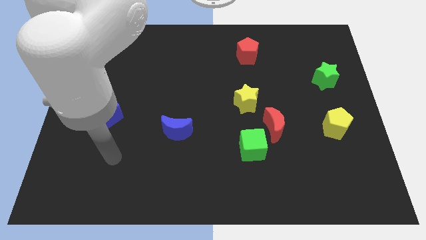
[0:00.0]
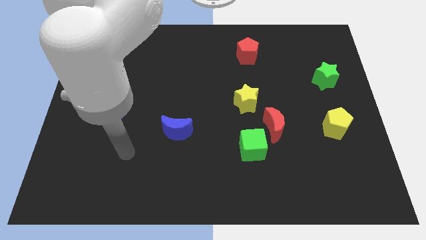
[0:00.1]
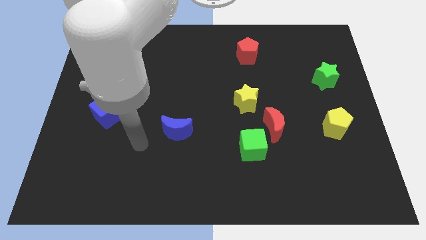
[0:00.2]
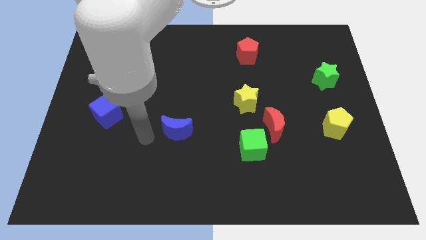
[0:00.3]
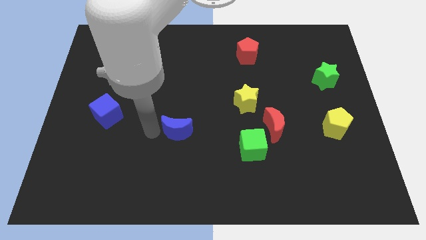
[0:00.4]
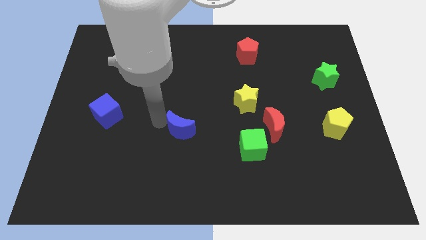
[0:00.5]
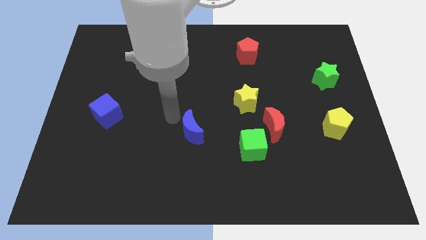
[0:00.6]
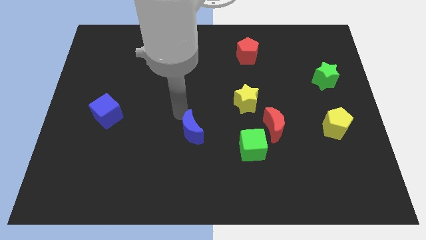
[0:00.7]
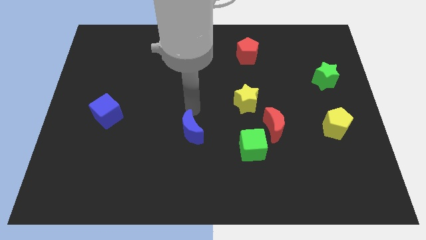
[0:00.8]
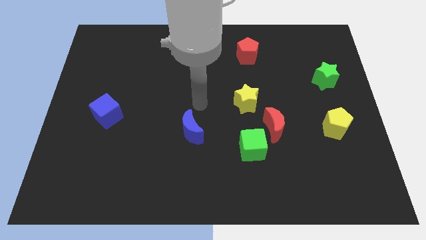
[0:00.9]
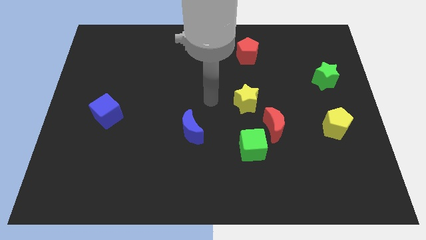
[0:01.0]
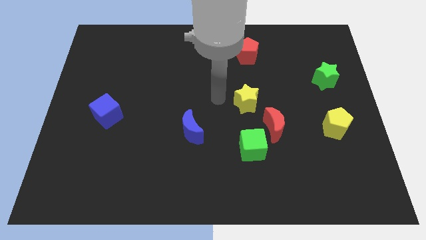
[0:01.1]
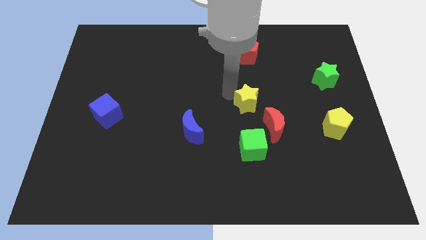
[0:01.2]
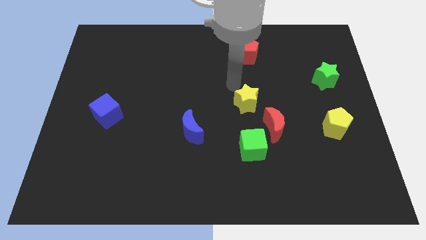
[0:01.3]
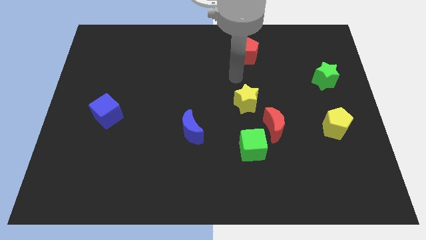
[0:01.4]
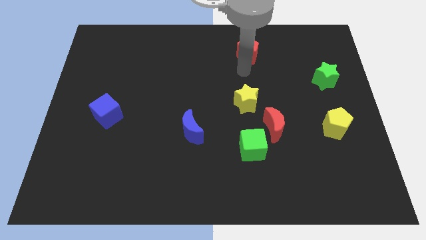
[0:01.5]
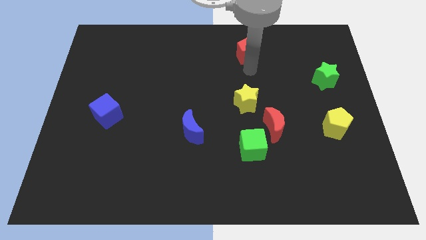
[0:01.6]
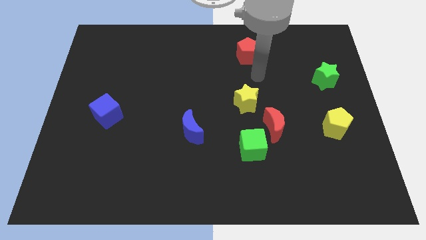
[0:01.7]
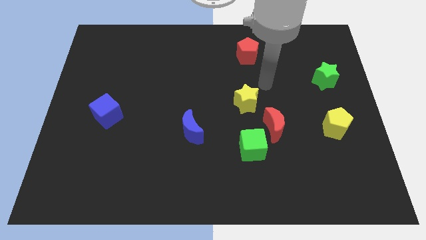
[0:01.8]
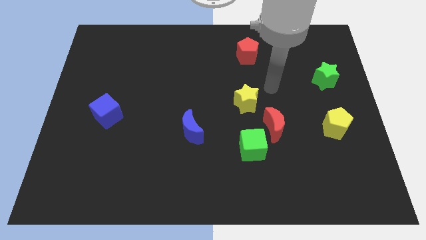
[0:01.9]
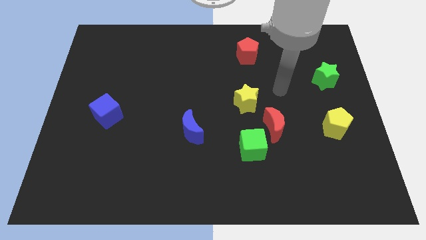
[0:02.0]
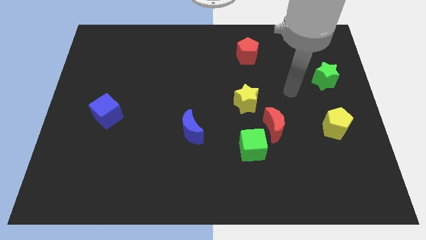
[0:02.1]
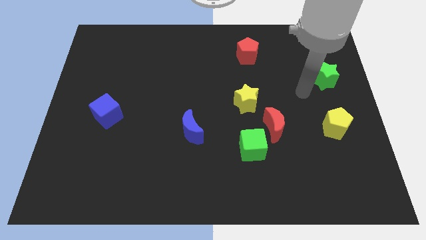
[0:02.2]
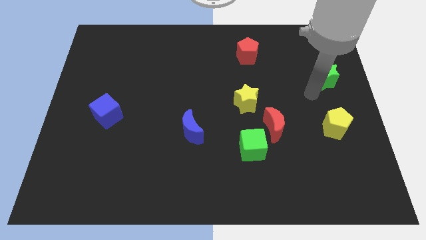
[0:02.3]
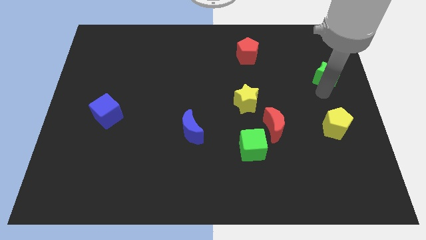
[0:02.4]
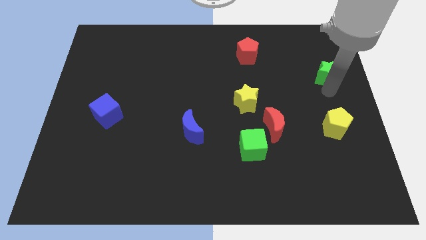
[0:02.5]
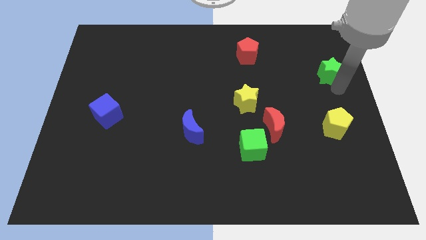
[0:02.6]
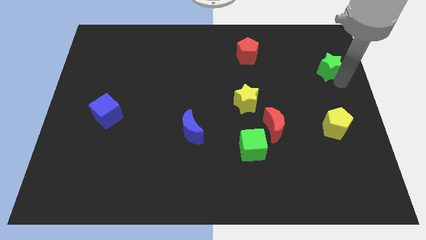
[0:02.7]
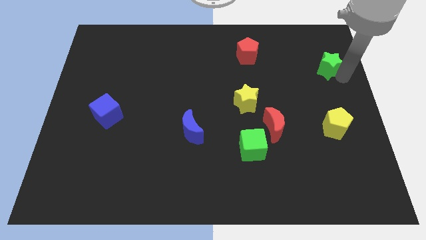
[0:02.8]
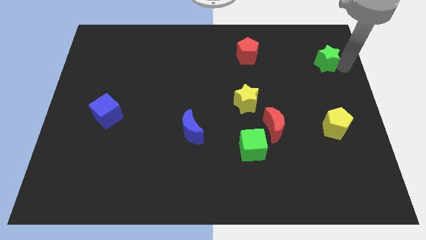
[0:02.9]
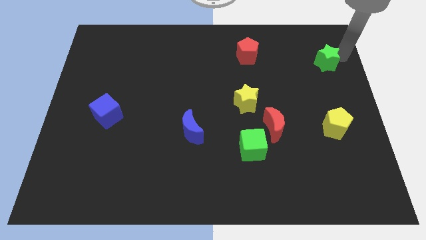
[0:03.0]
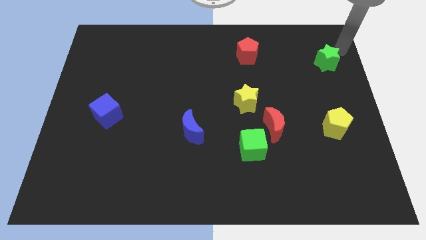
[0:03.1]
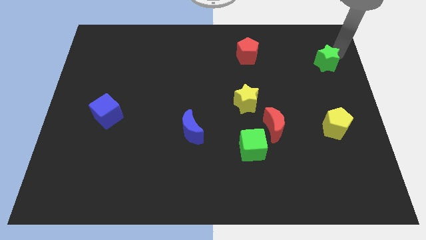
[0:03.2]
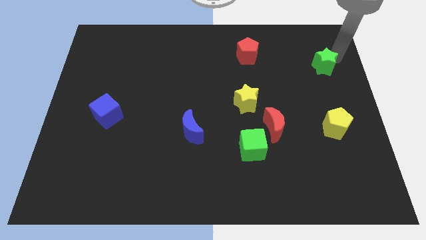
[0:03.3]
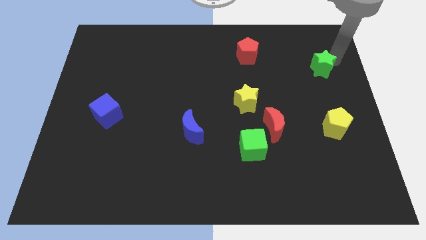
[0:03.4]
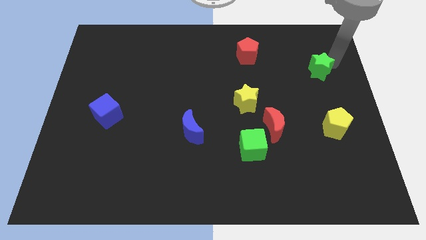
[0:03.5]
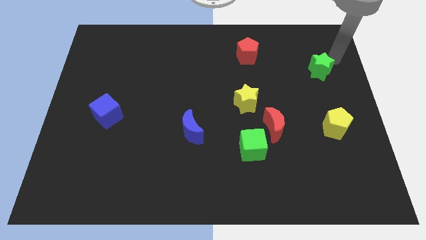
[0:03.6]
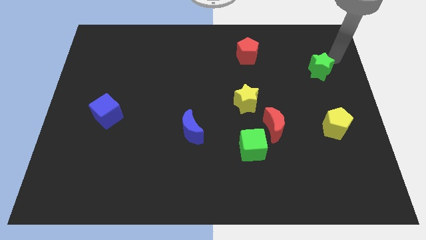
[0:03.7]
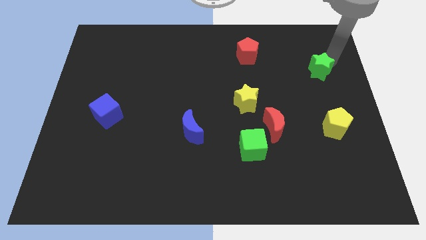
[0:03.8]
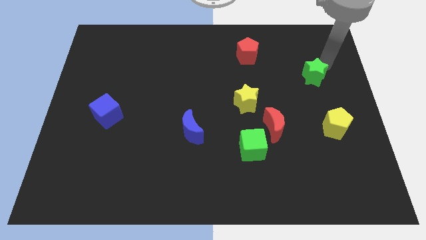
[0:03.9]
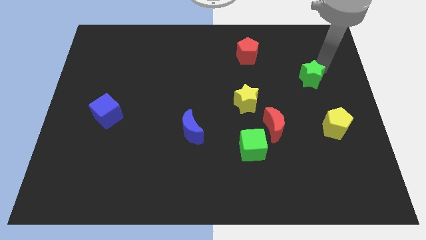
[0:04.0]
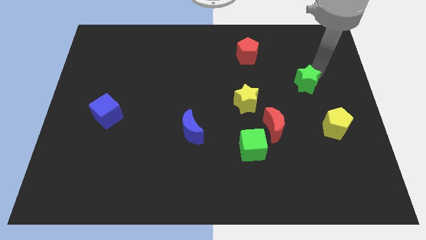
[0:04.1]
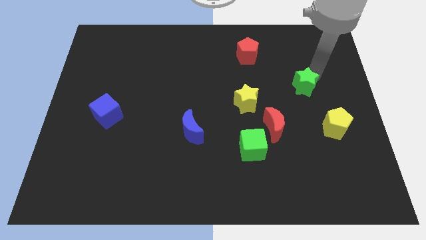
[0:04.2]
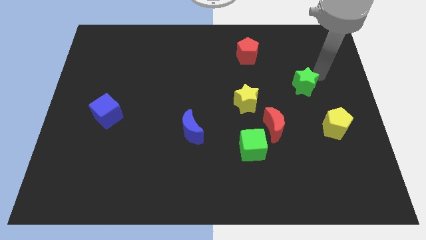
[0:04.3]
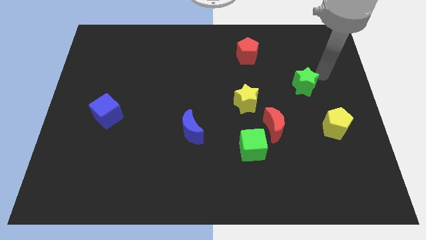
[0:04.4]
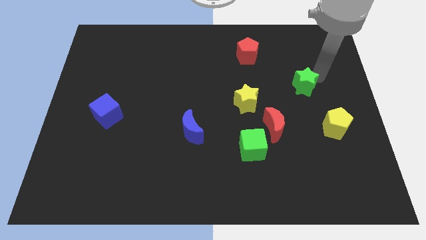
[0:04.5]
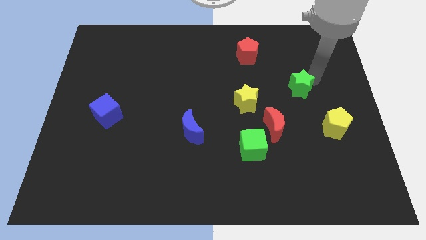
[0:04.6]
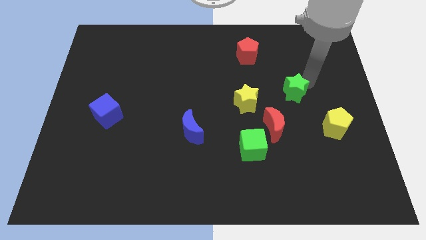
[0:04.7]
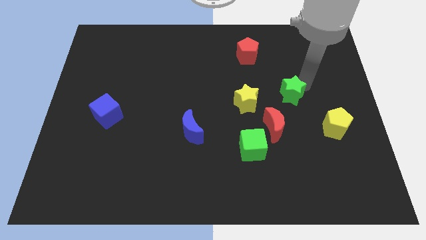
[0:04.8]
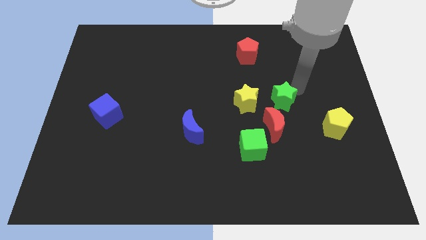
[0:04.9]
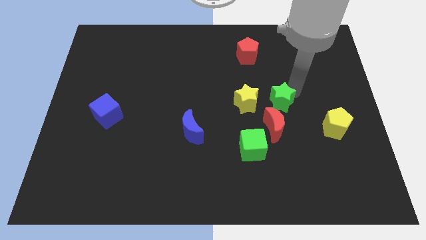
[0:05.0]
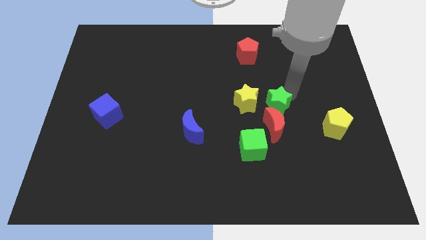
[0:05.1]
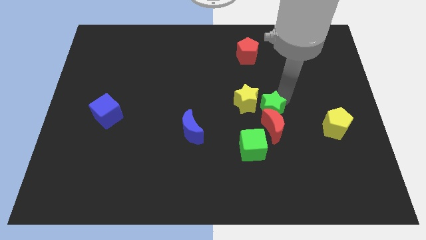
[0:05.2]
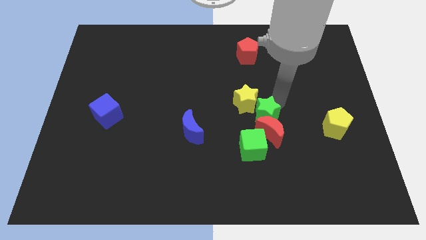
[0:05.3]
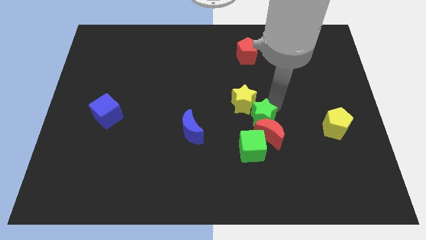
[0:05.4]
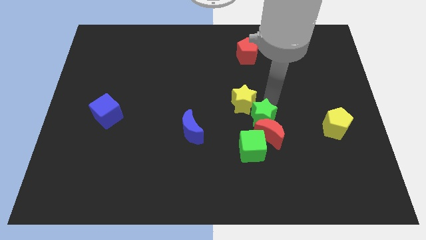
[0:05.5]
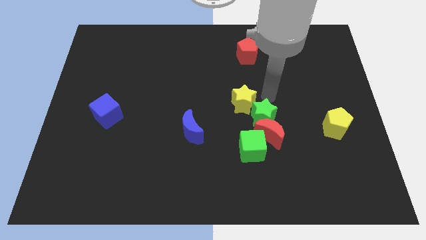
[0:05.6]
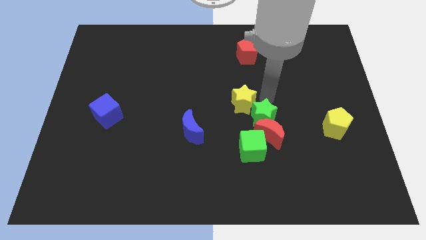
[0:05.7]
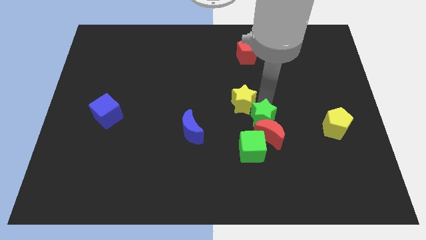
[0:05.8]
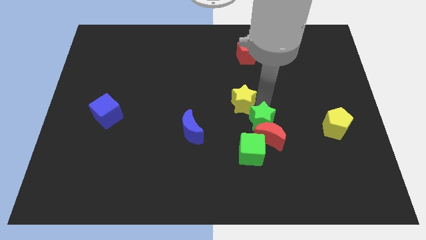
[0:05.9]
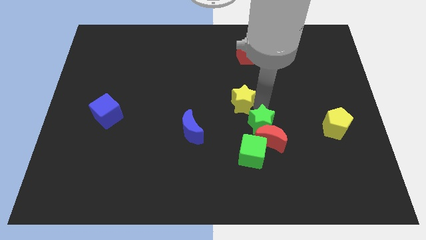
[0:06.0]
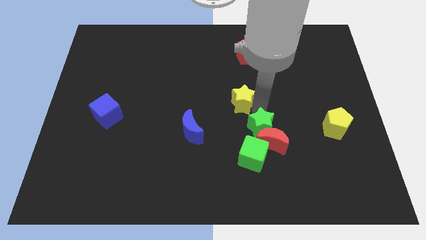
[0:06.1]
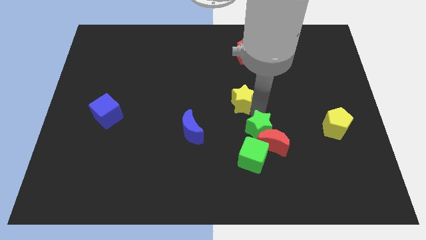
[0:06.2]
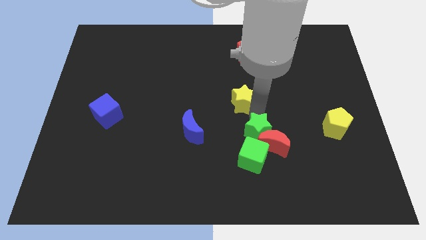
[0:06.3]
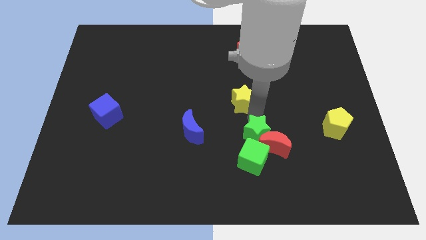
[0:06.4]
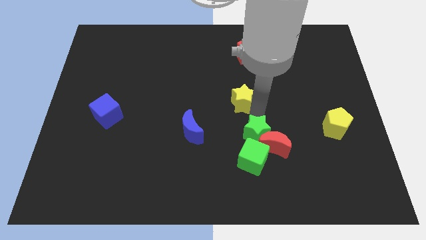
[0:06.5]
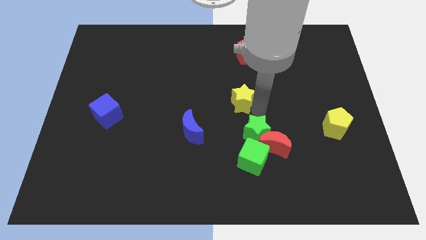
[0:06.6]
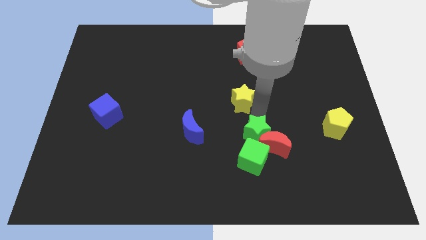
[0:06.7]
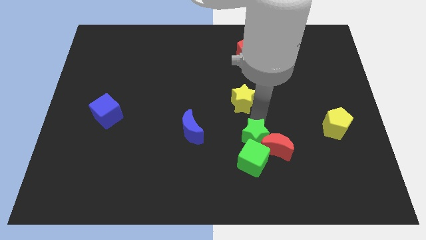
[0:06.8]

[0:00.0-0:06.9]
move the green star to the green cube

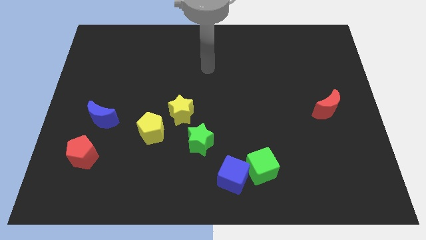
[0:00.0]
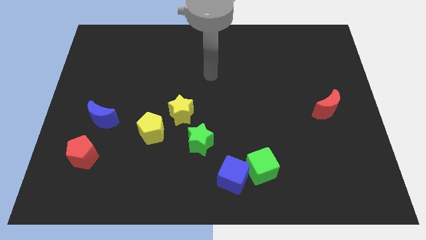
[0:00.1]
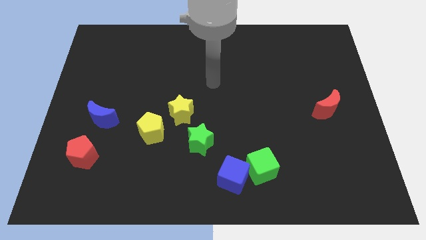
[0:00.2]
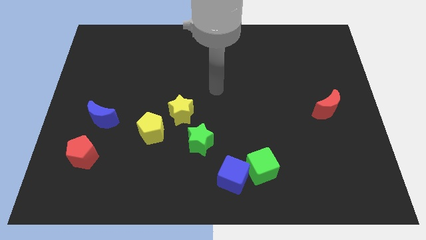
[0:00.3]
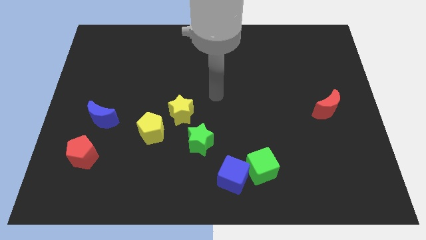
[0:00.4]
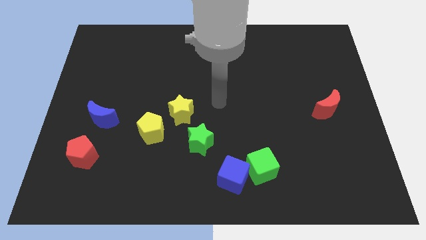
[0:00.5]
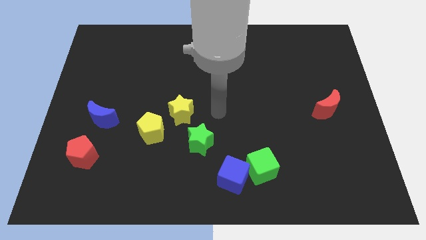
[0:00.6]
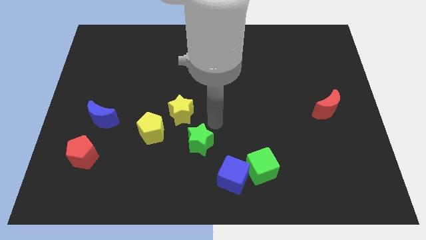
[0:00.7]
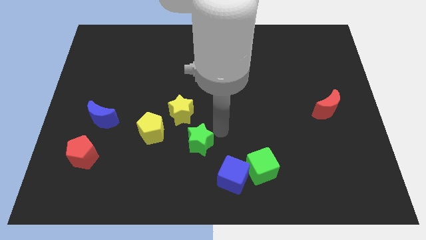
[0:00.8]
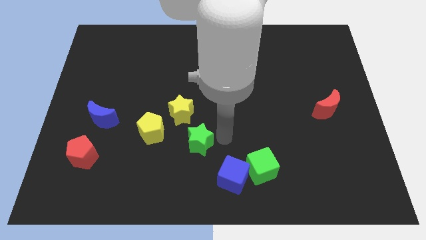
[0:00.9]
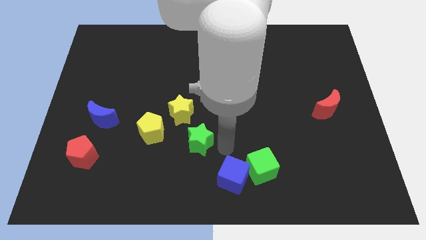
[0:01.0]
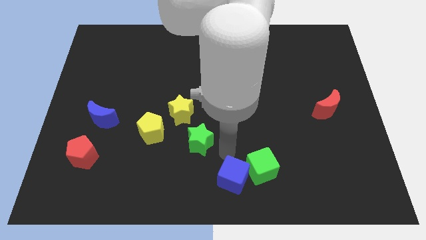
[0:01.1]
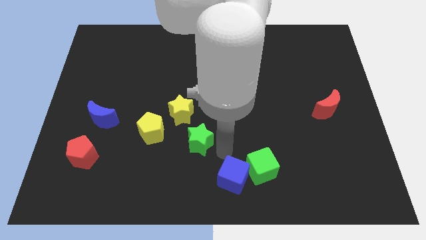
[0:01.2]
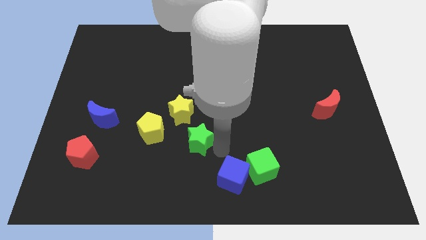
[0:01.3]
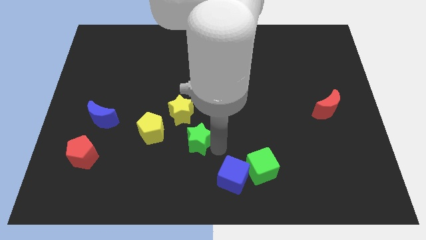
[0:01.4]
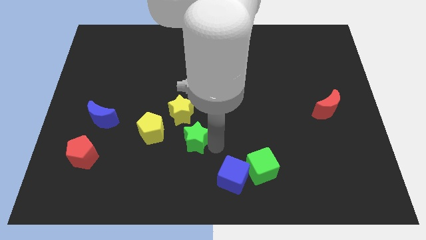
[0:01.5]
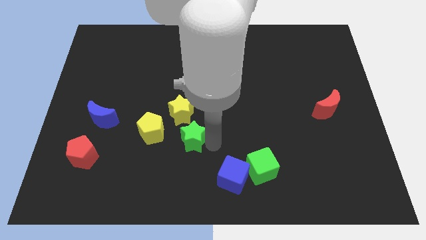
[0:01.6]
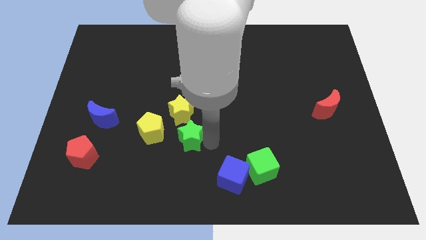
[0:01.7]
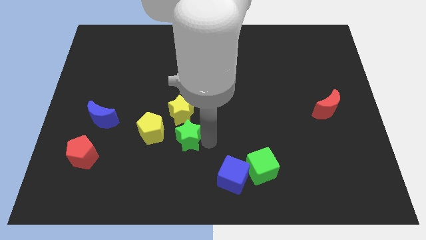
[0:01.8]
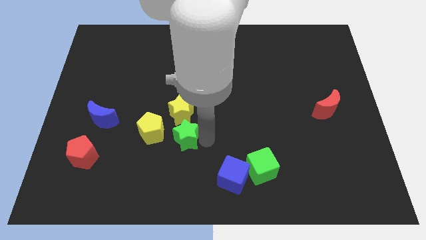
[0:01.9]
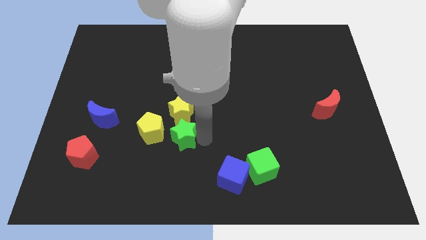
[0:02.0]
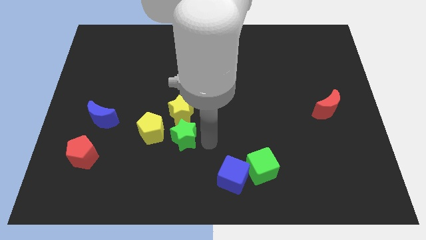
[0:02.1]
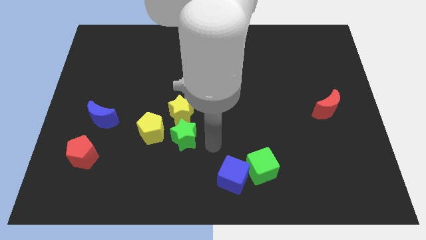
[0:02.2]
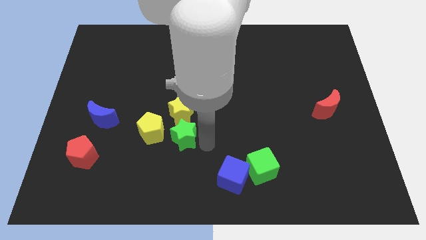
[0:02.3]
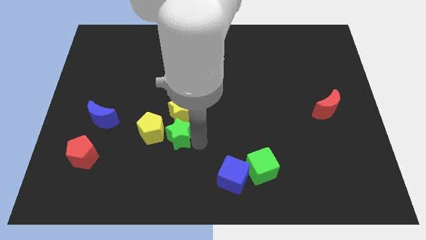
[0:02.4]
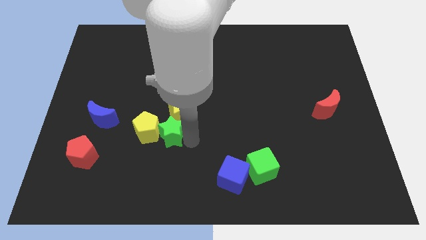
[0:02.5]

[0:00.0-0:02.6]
push the green star towards the yellow pentagon
